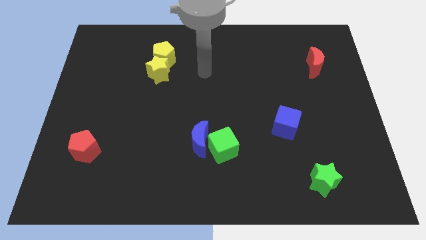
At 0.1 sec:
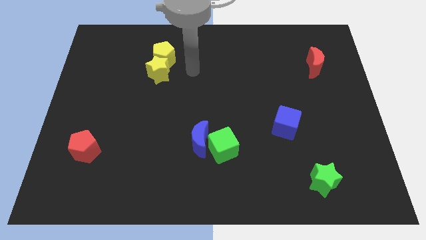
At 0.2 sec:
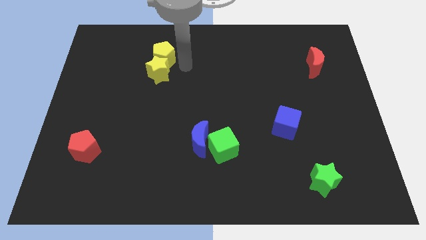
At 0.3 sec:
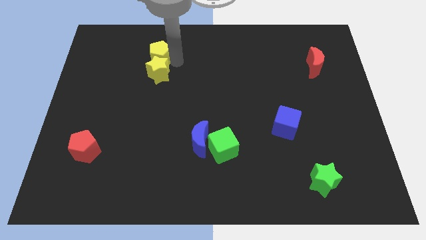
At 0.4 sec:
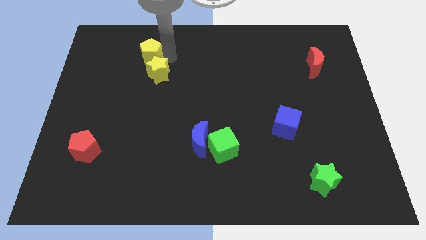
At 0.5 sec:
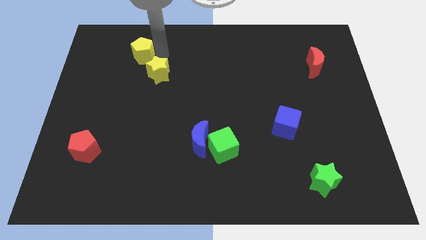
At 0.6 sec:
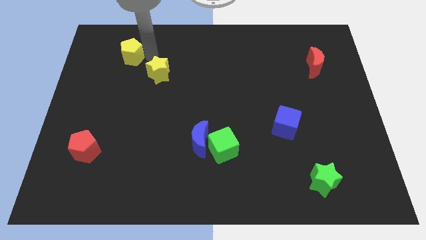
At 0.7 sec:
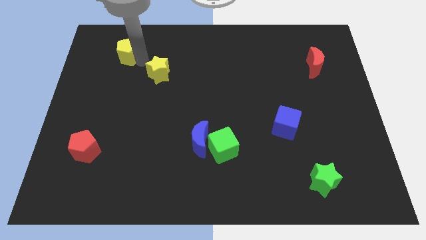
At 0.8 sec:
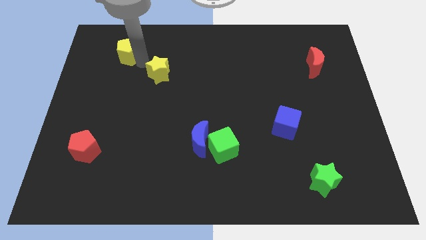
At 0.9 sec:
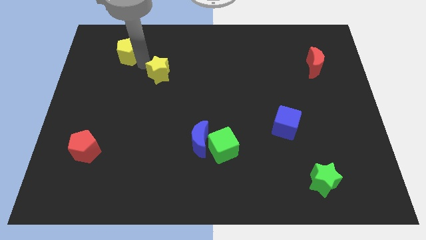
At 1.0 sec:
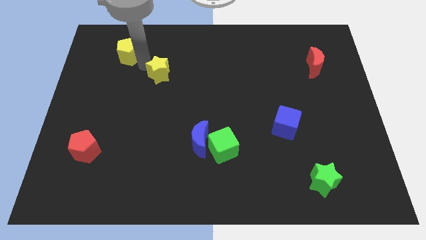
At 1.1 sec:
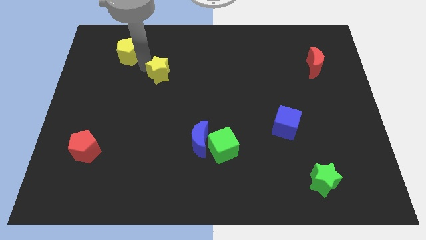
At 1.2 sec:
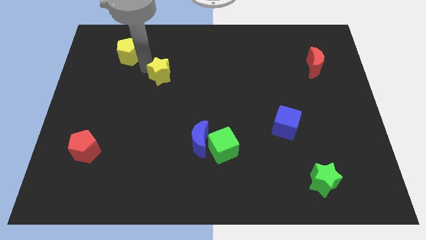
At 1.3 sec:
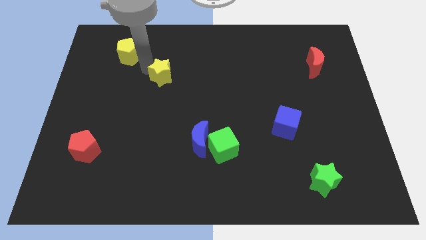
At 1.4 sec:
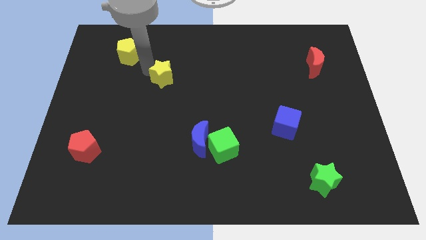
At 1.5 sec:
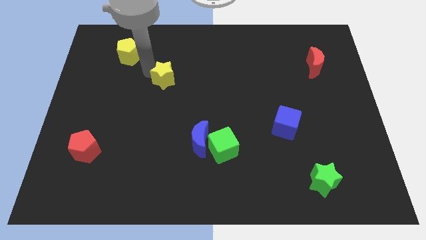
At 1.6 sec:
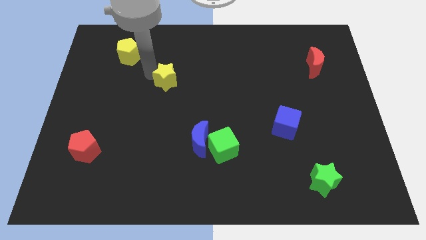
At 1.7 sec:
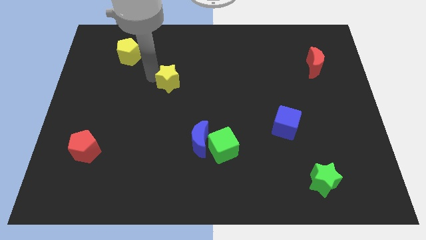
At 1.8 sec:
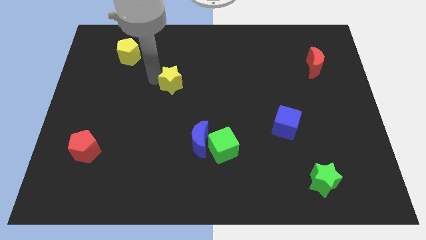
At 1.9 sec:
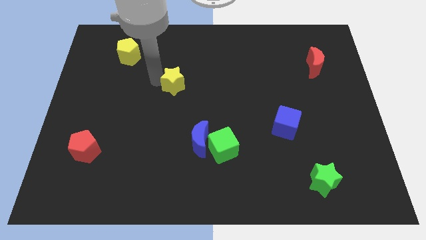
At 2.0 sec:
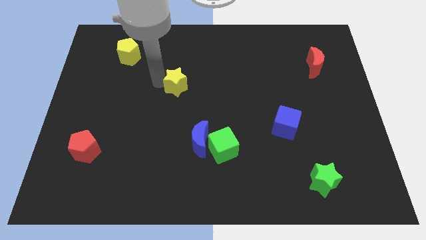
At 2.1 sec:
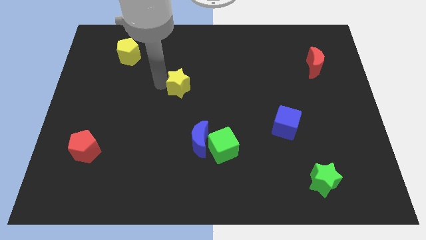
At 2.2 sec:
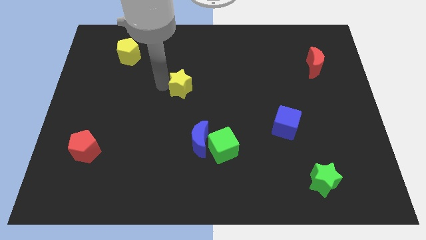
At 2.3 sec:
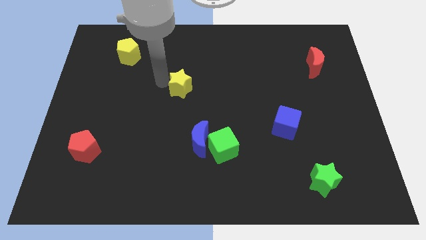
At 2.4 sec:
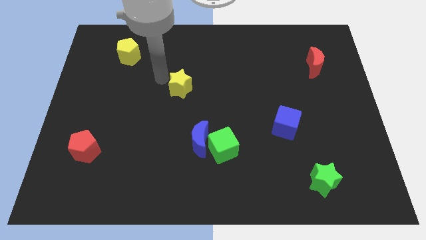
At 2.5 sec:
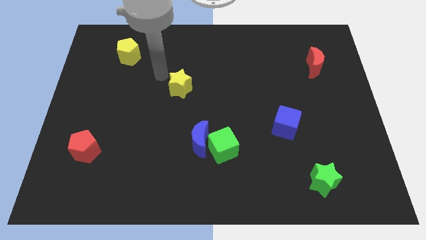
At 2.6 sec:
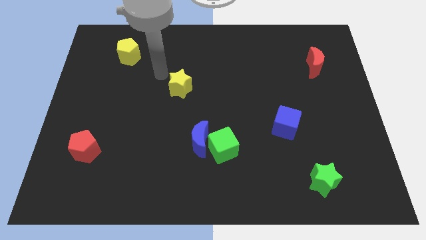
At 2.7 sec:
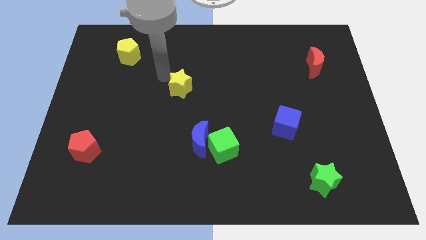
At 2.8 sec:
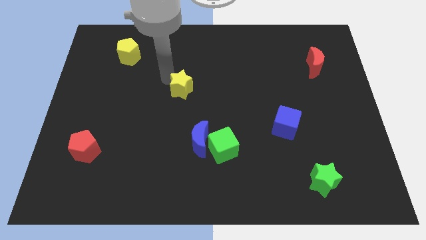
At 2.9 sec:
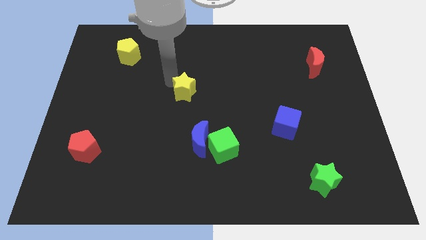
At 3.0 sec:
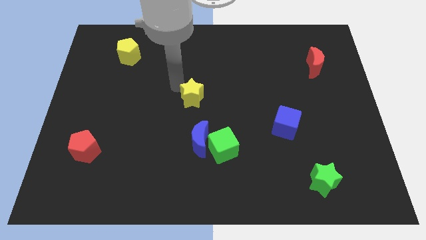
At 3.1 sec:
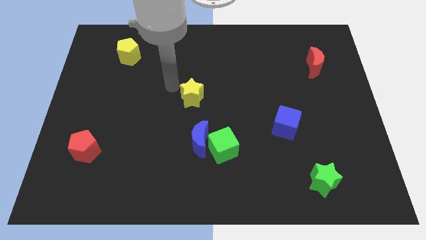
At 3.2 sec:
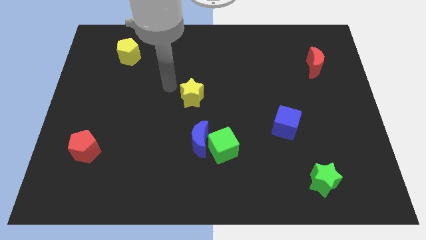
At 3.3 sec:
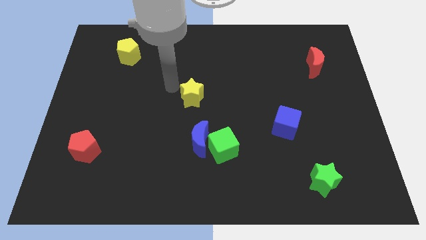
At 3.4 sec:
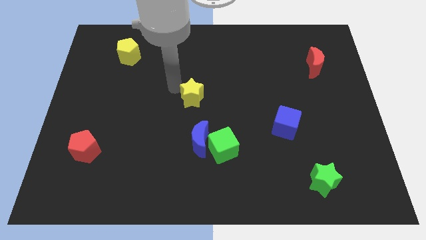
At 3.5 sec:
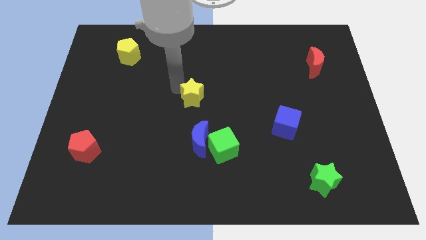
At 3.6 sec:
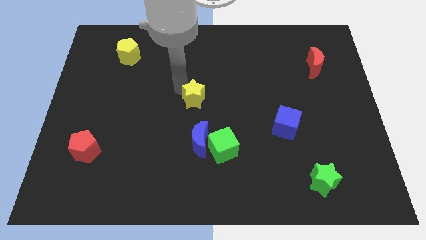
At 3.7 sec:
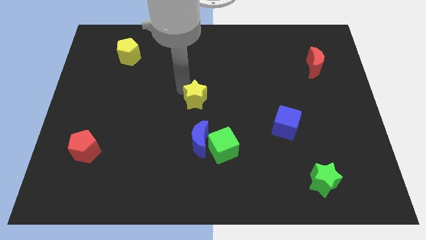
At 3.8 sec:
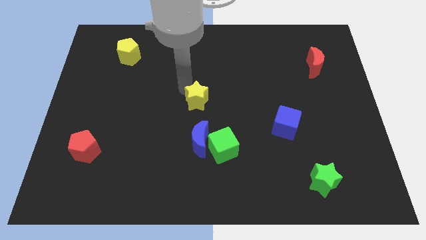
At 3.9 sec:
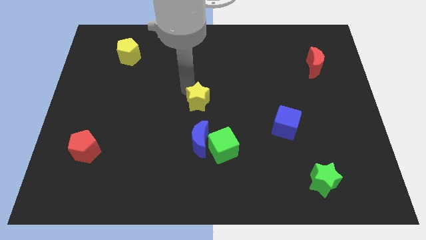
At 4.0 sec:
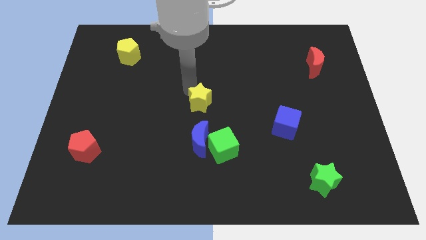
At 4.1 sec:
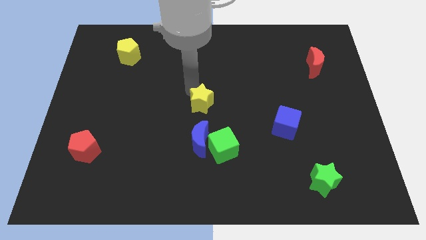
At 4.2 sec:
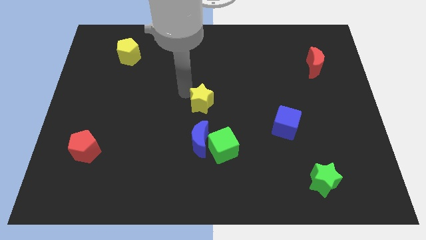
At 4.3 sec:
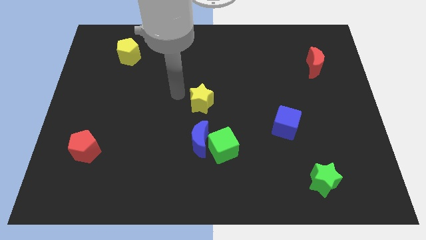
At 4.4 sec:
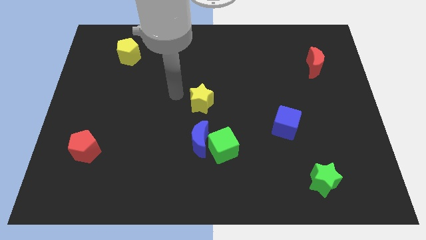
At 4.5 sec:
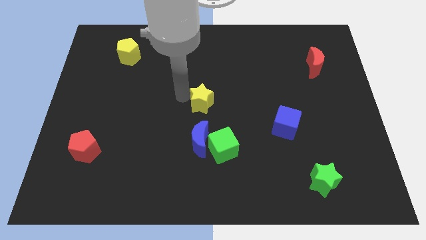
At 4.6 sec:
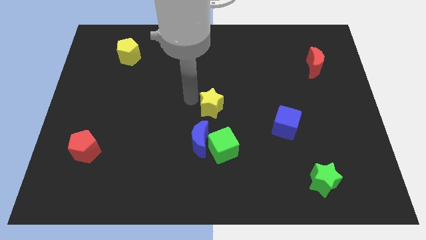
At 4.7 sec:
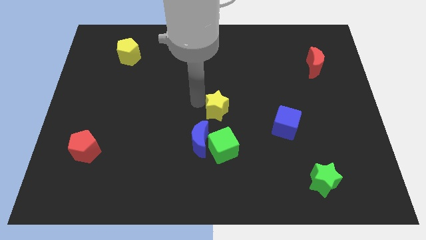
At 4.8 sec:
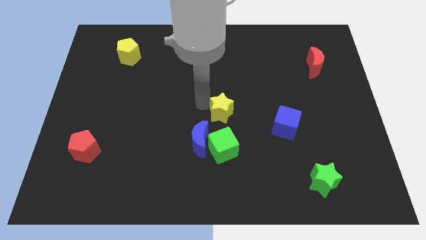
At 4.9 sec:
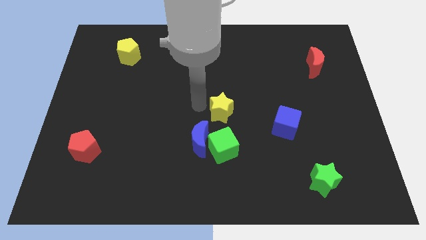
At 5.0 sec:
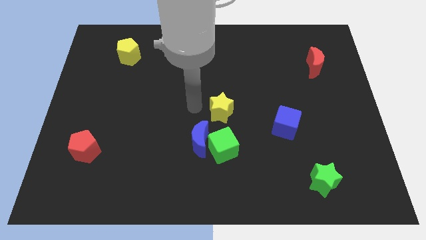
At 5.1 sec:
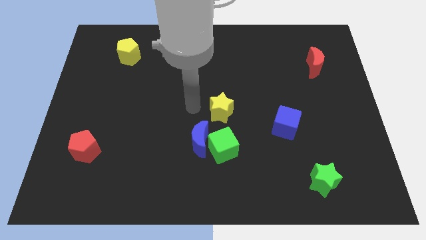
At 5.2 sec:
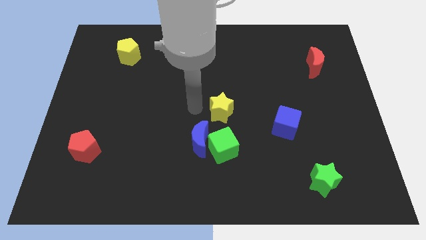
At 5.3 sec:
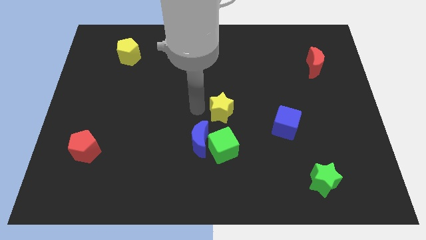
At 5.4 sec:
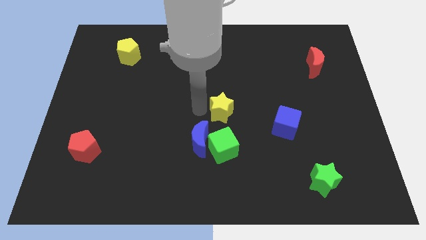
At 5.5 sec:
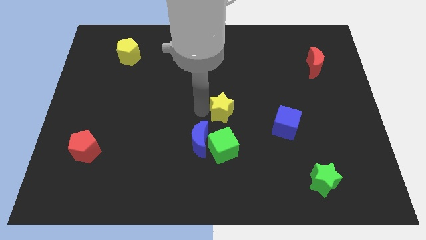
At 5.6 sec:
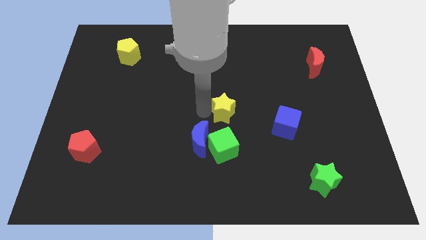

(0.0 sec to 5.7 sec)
push the yellow star downwards and then right

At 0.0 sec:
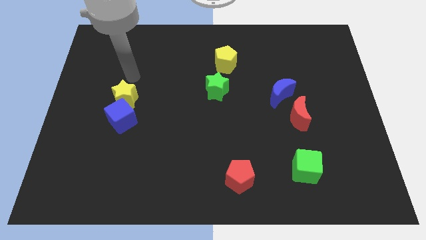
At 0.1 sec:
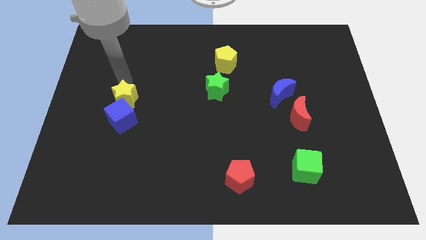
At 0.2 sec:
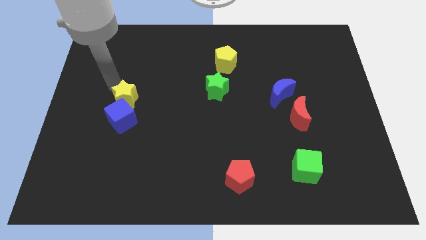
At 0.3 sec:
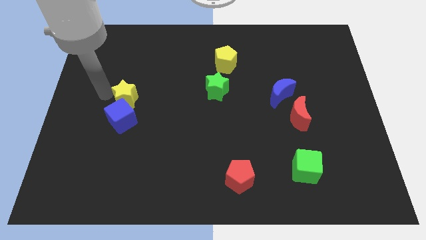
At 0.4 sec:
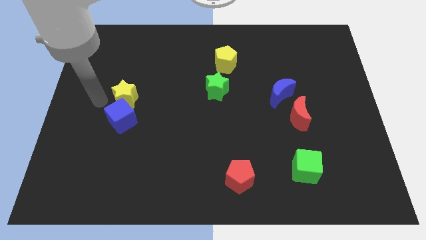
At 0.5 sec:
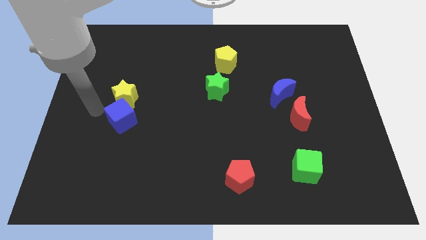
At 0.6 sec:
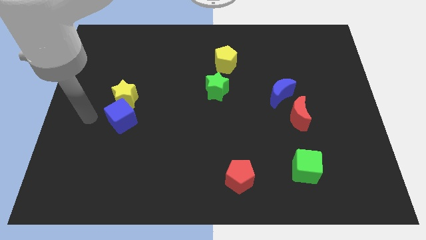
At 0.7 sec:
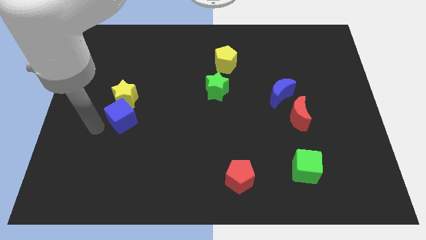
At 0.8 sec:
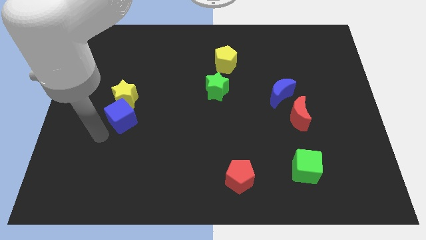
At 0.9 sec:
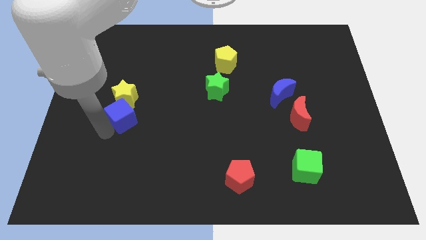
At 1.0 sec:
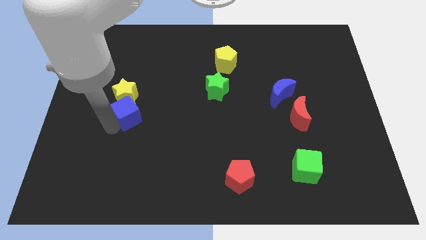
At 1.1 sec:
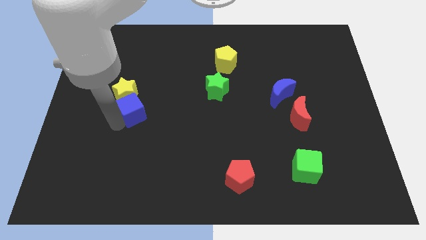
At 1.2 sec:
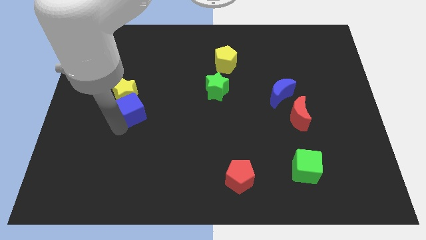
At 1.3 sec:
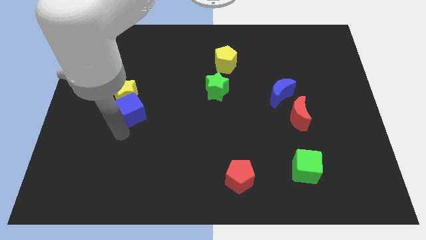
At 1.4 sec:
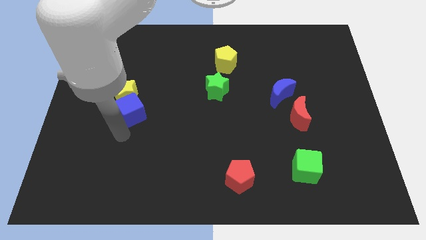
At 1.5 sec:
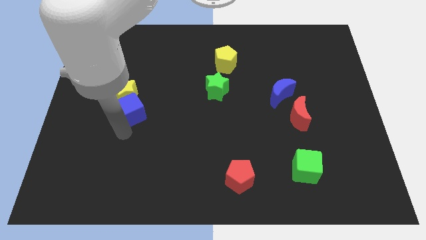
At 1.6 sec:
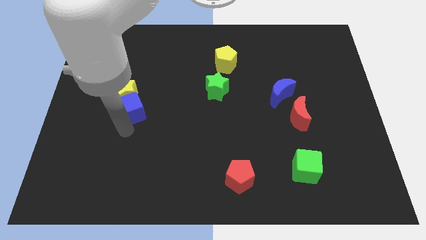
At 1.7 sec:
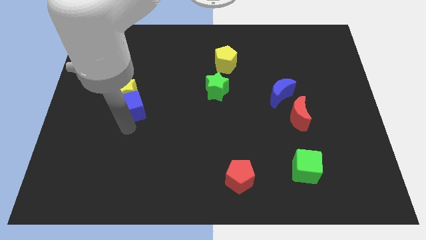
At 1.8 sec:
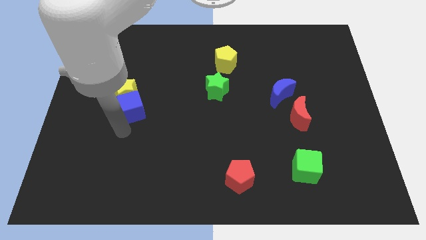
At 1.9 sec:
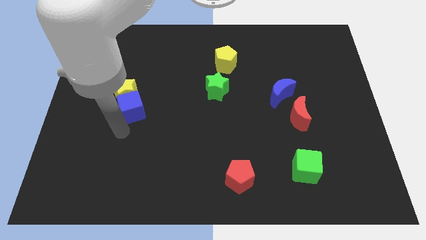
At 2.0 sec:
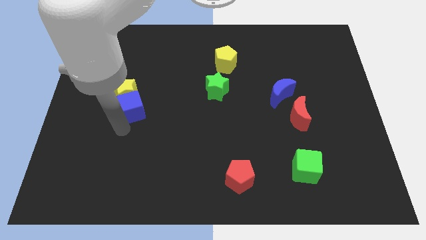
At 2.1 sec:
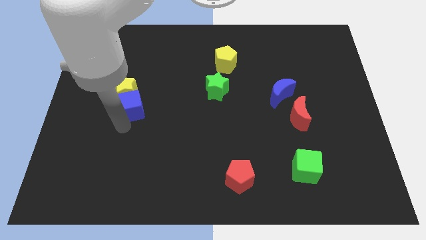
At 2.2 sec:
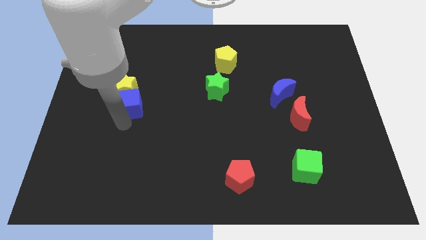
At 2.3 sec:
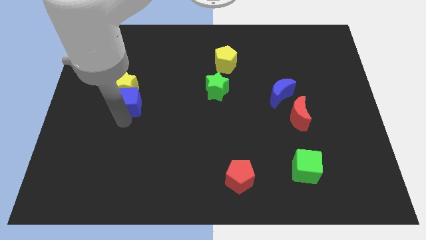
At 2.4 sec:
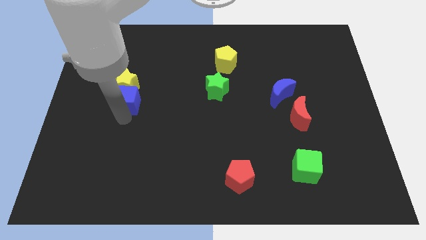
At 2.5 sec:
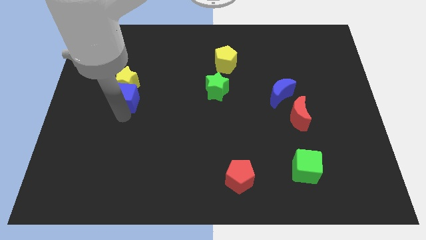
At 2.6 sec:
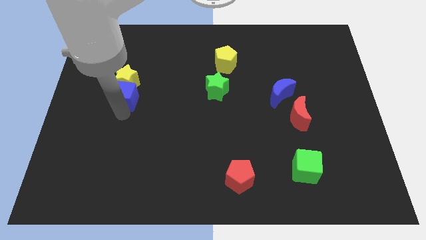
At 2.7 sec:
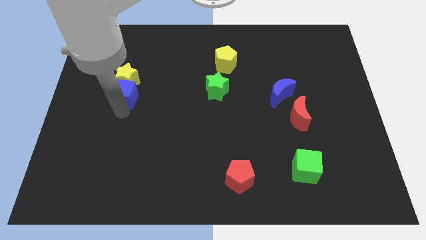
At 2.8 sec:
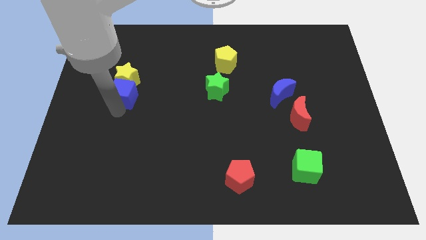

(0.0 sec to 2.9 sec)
move the blue cube up a bit
